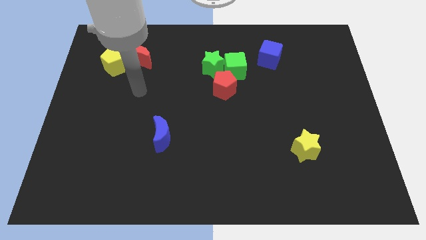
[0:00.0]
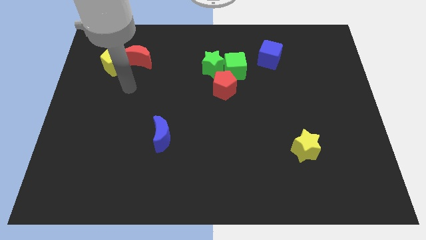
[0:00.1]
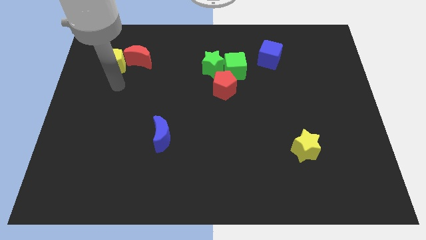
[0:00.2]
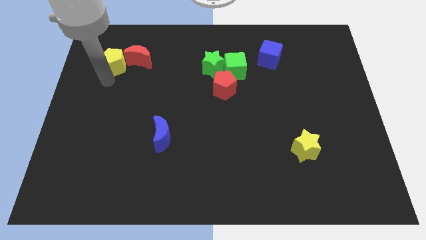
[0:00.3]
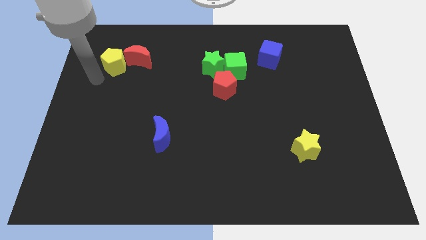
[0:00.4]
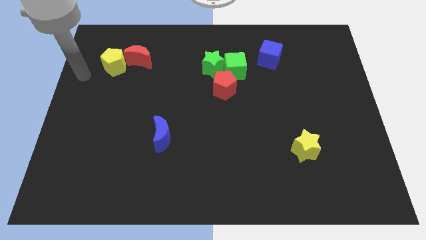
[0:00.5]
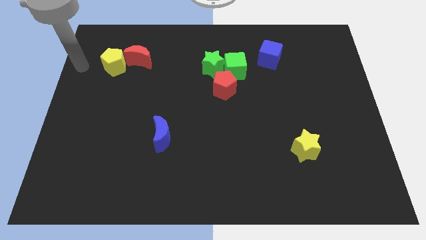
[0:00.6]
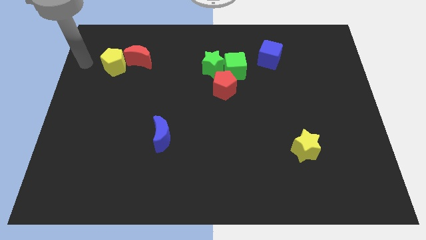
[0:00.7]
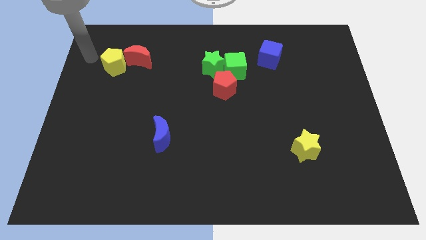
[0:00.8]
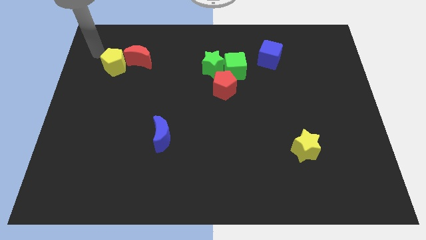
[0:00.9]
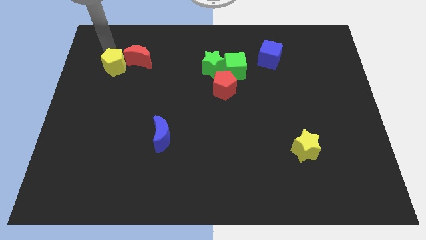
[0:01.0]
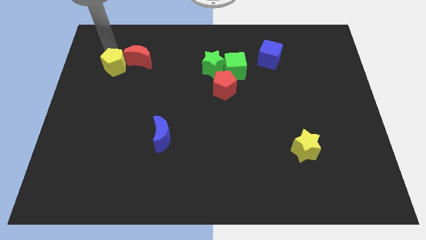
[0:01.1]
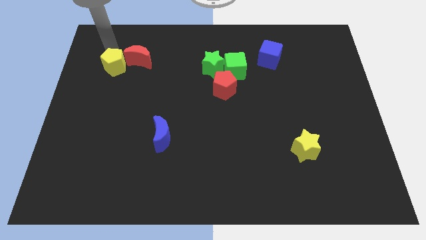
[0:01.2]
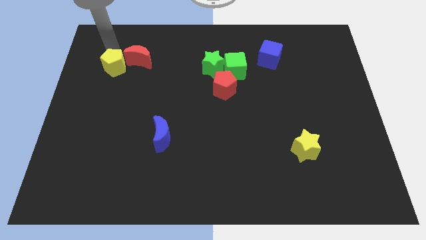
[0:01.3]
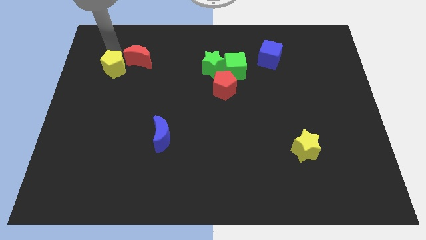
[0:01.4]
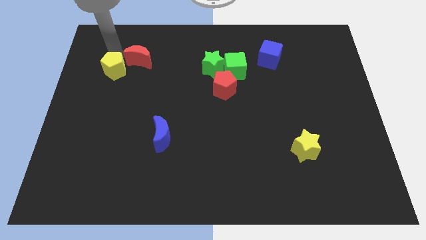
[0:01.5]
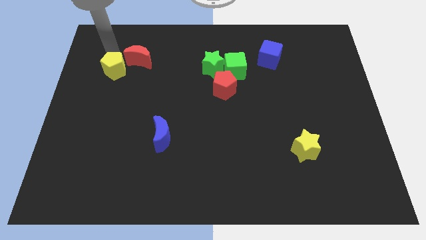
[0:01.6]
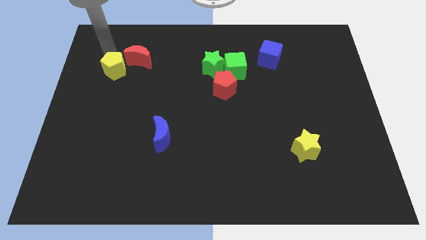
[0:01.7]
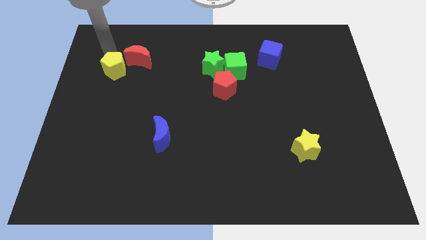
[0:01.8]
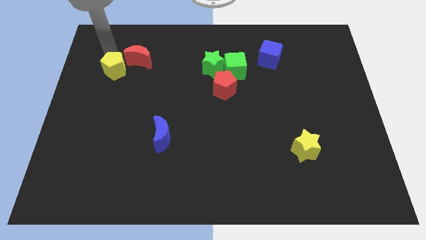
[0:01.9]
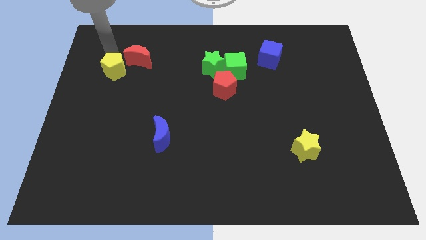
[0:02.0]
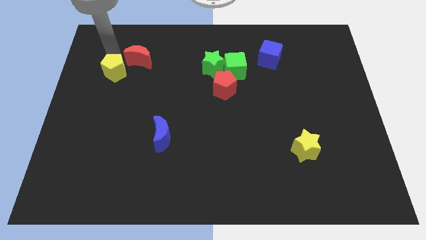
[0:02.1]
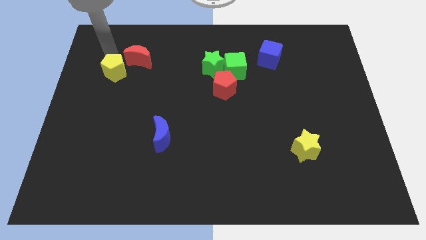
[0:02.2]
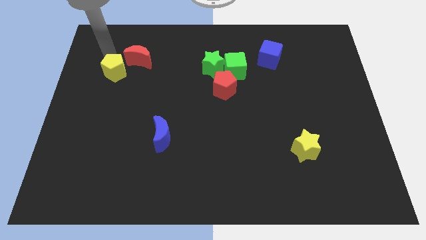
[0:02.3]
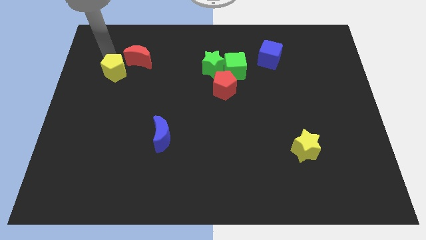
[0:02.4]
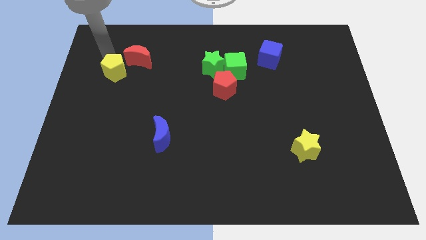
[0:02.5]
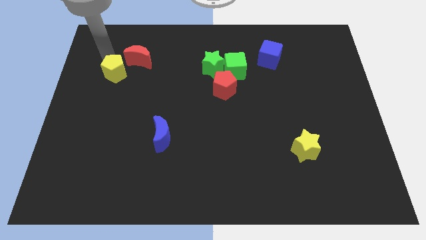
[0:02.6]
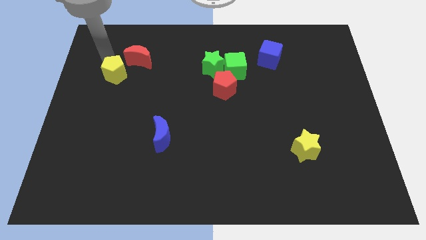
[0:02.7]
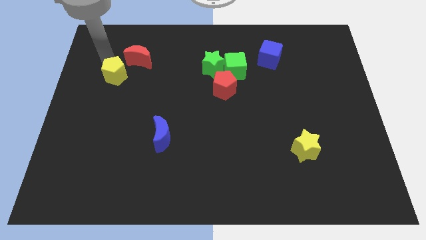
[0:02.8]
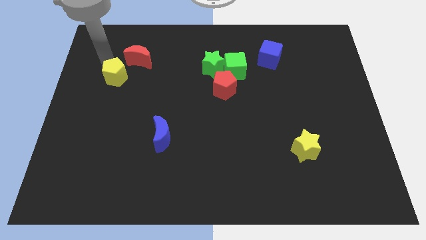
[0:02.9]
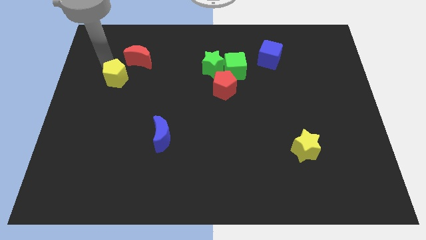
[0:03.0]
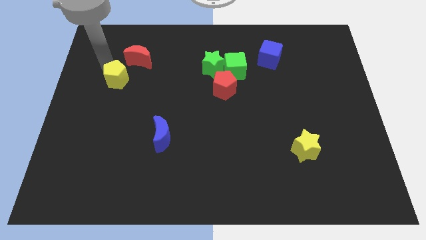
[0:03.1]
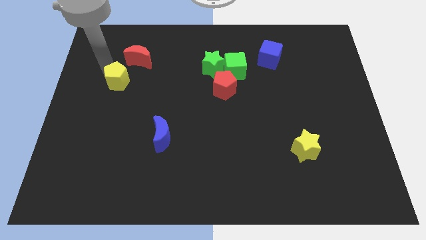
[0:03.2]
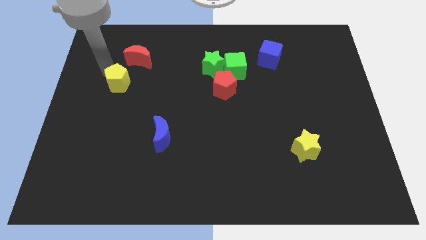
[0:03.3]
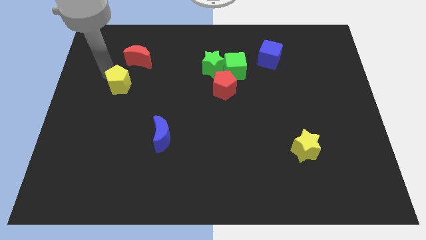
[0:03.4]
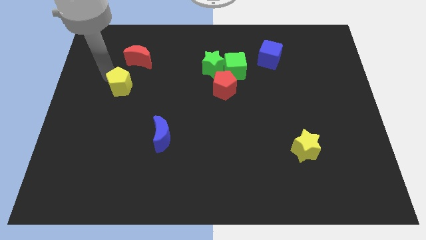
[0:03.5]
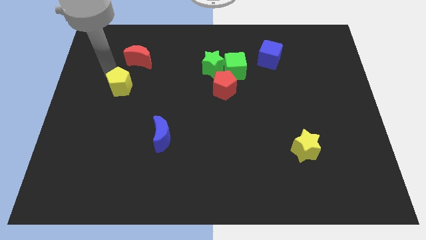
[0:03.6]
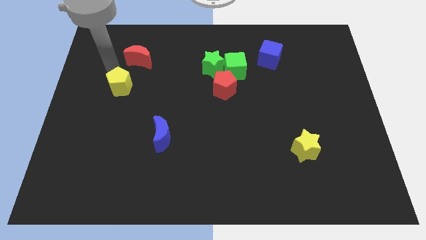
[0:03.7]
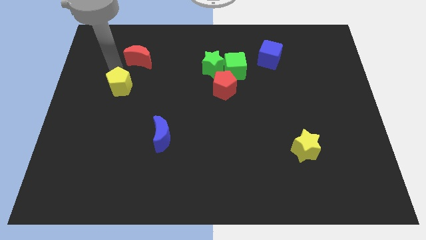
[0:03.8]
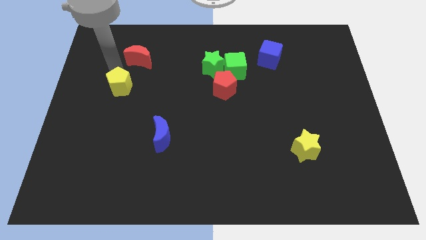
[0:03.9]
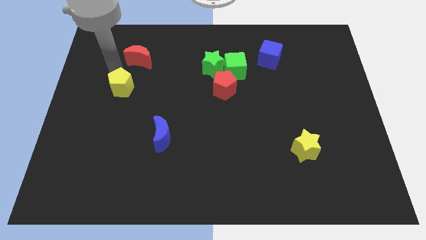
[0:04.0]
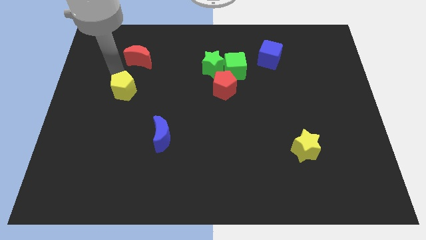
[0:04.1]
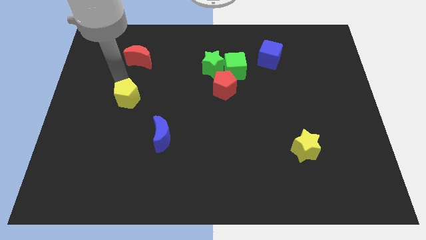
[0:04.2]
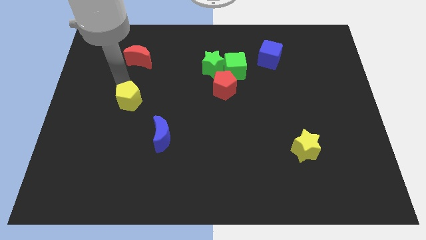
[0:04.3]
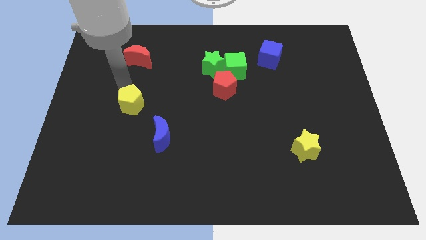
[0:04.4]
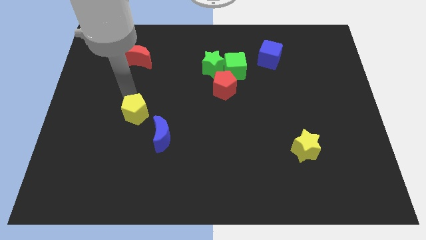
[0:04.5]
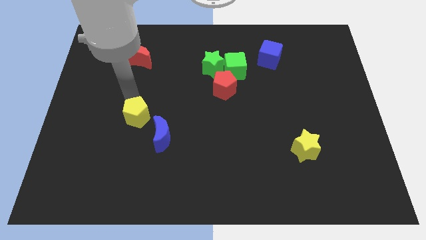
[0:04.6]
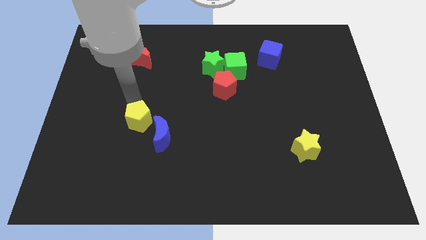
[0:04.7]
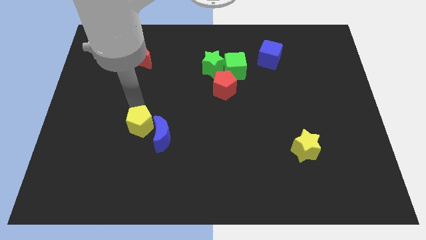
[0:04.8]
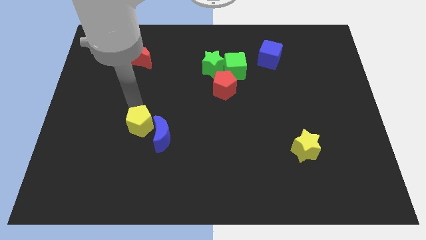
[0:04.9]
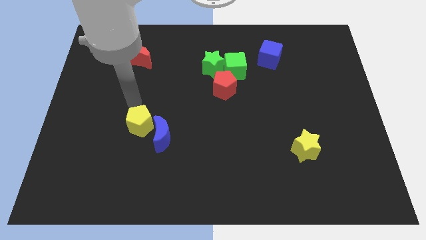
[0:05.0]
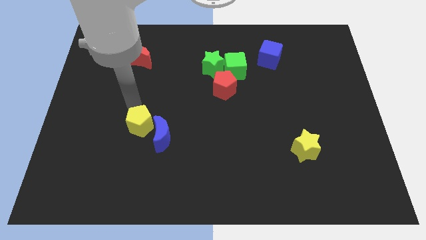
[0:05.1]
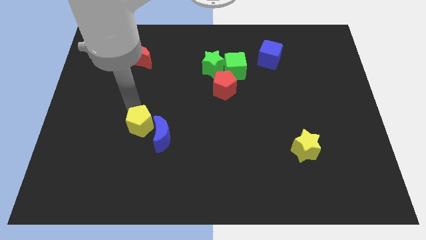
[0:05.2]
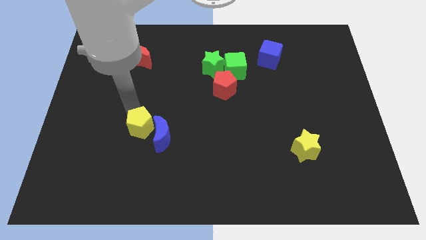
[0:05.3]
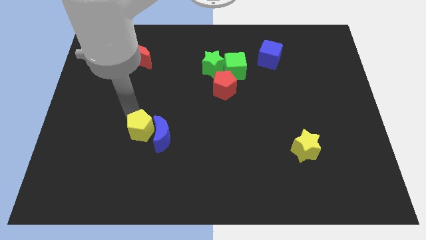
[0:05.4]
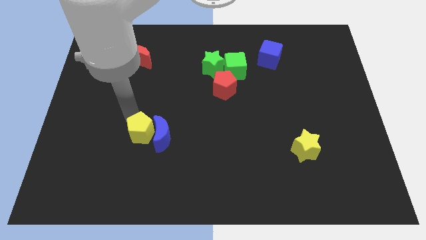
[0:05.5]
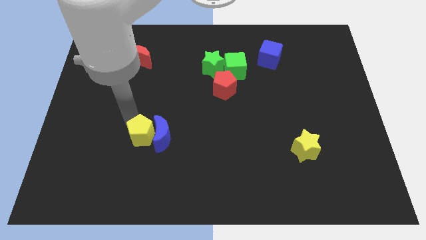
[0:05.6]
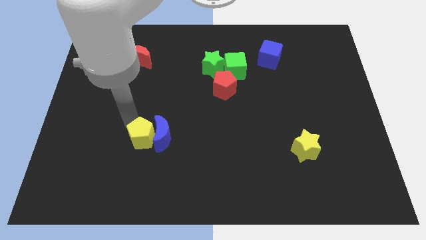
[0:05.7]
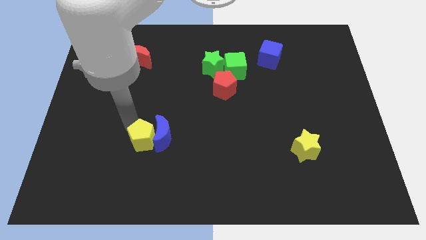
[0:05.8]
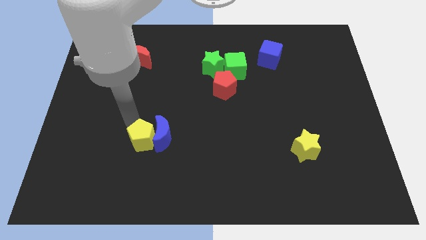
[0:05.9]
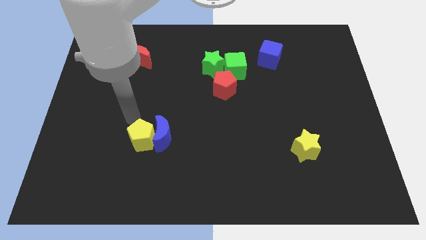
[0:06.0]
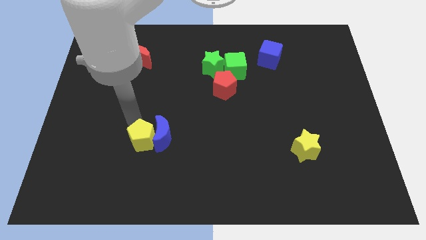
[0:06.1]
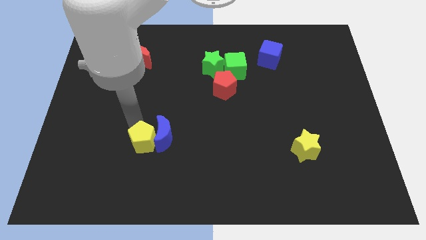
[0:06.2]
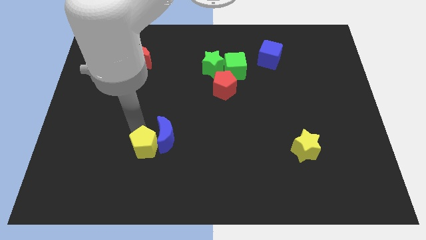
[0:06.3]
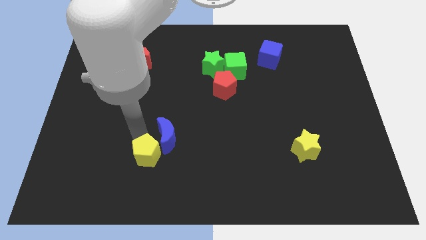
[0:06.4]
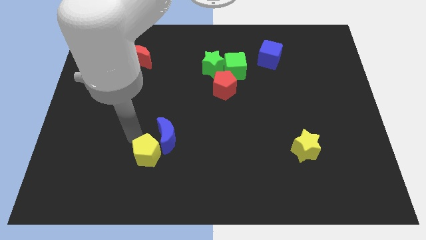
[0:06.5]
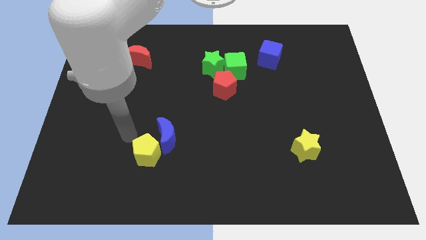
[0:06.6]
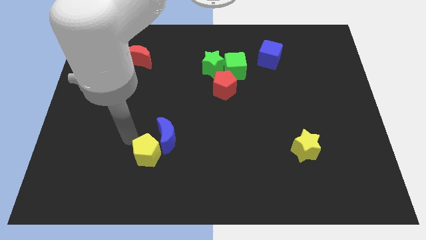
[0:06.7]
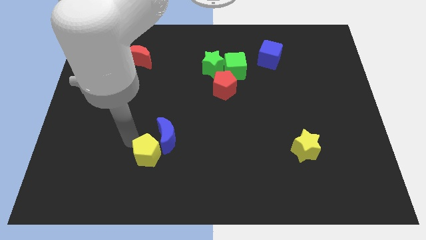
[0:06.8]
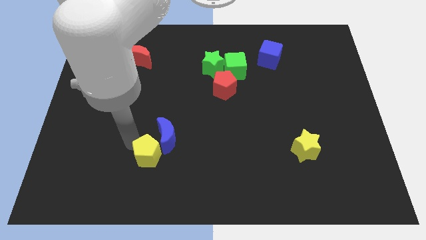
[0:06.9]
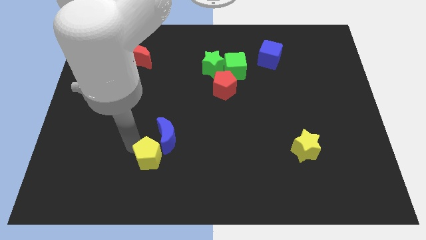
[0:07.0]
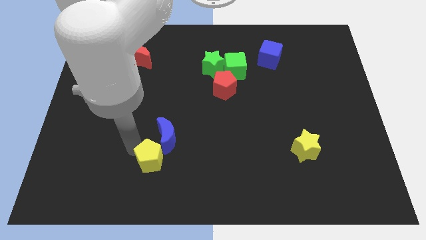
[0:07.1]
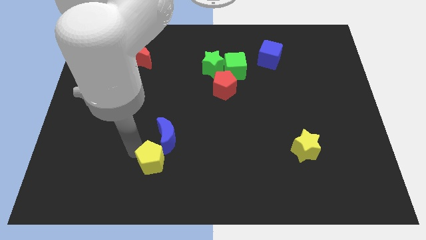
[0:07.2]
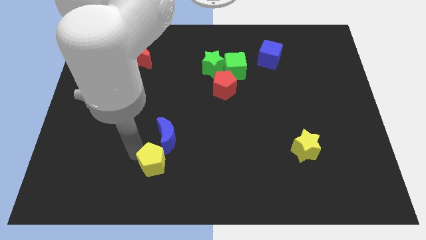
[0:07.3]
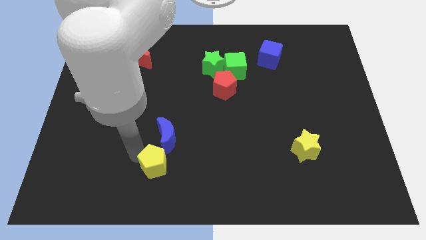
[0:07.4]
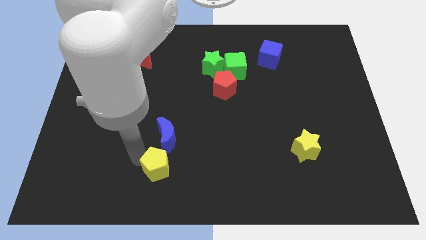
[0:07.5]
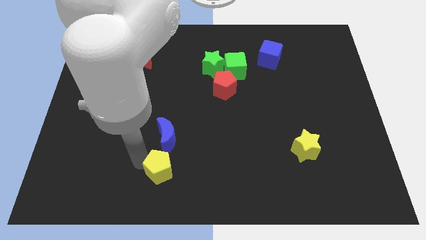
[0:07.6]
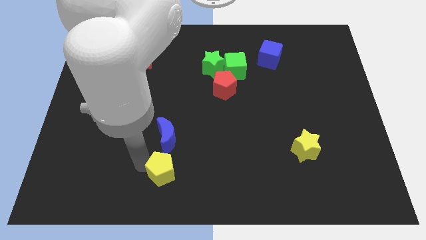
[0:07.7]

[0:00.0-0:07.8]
push the yellow pentagon to the bottom side
